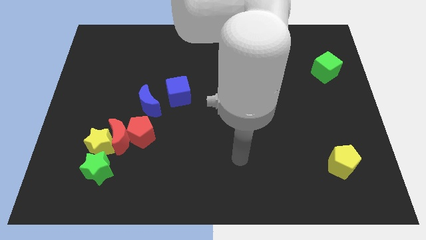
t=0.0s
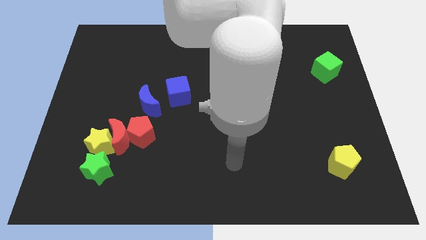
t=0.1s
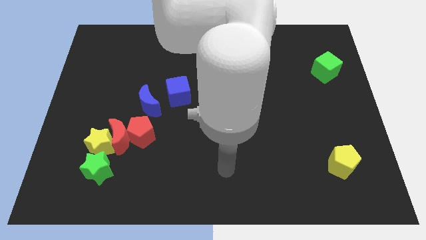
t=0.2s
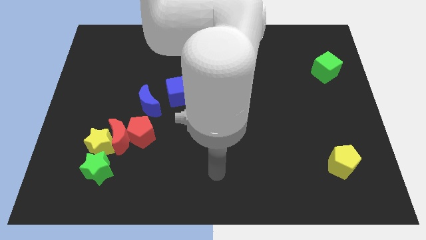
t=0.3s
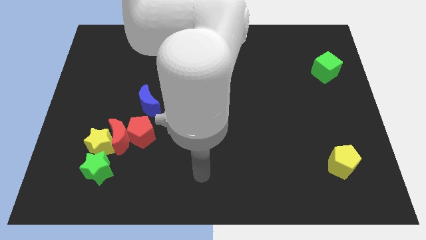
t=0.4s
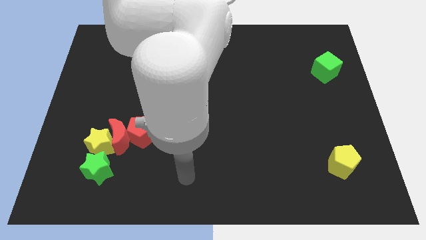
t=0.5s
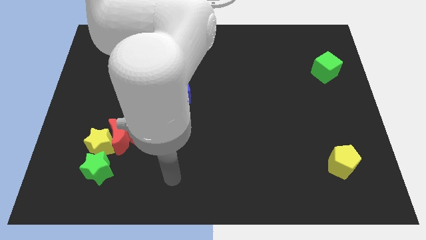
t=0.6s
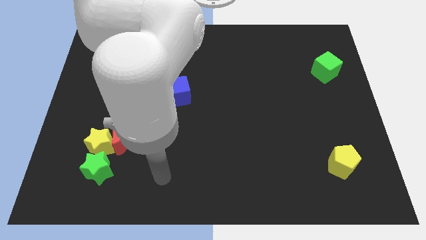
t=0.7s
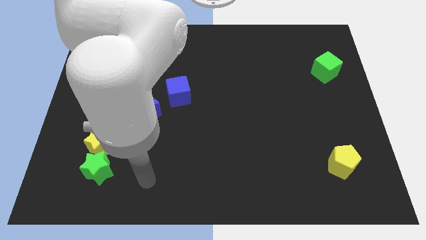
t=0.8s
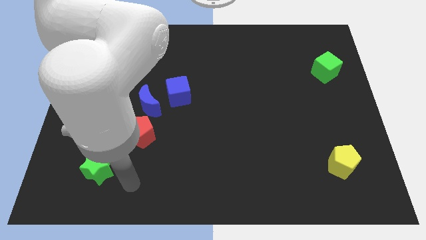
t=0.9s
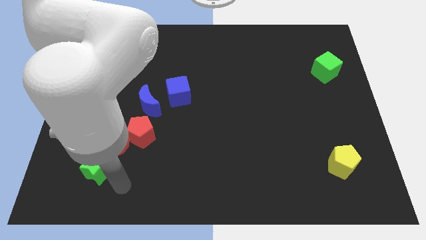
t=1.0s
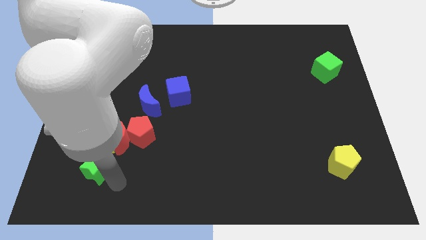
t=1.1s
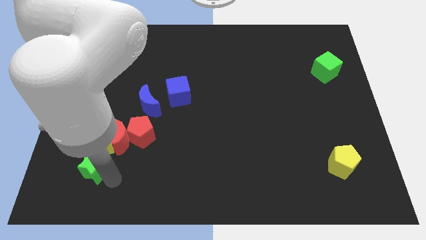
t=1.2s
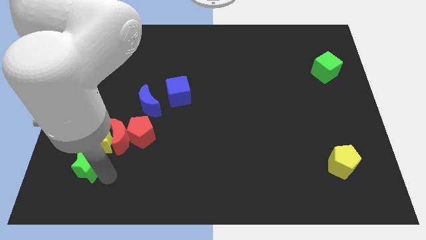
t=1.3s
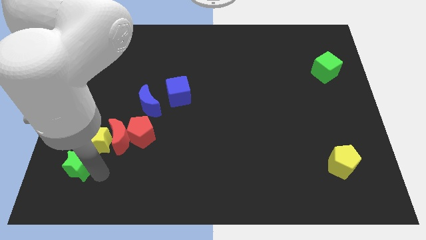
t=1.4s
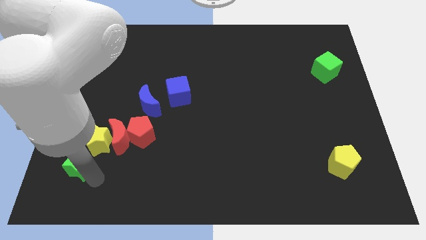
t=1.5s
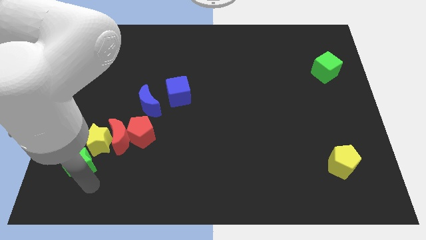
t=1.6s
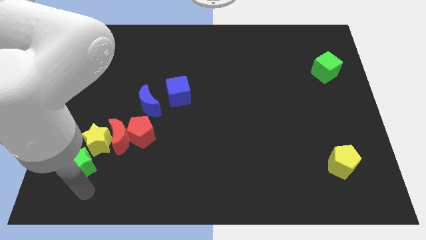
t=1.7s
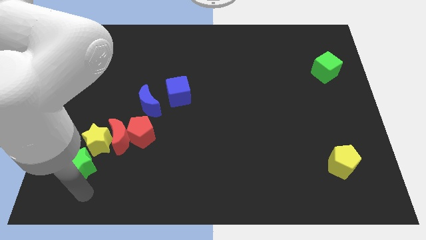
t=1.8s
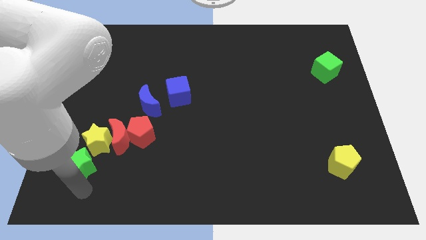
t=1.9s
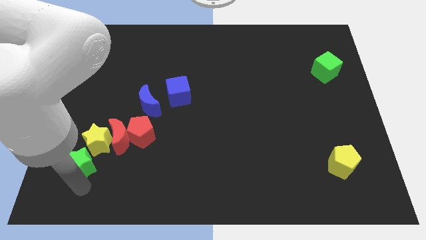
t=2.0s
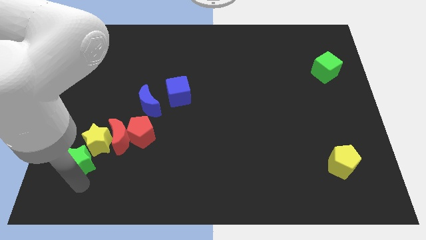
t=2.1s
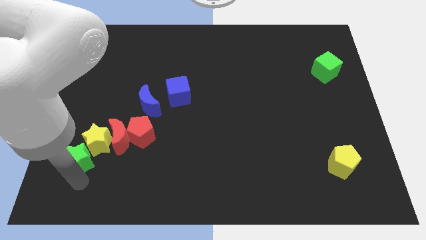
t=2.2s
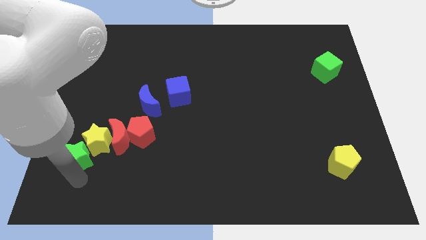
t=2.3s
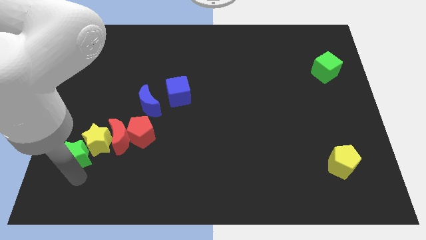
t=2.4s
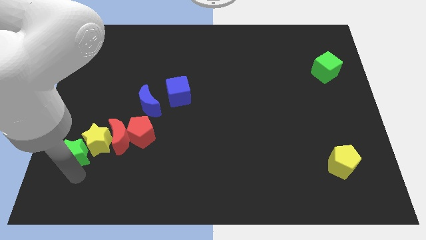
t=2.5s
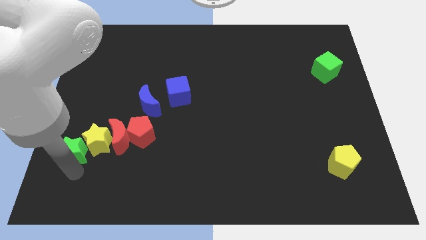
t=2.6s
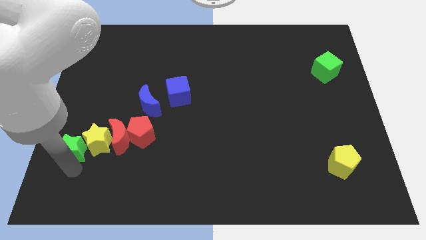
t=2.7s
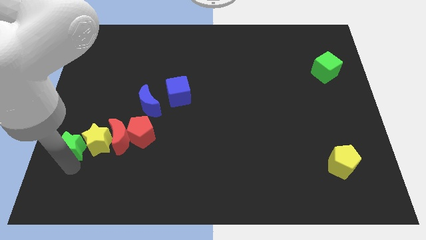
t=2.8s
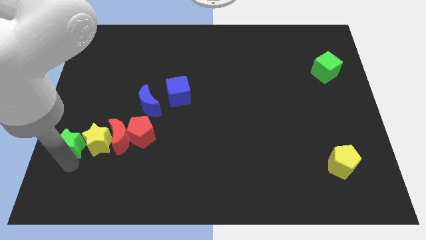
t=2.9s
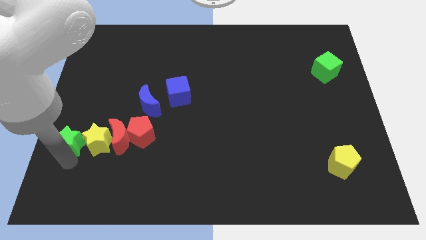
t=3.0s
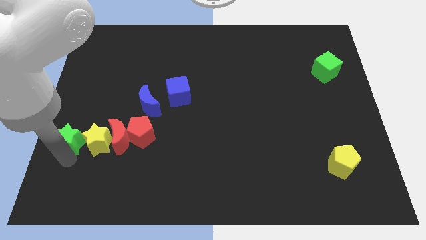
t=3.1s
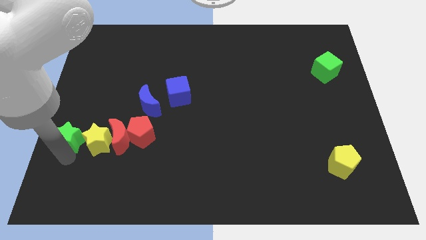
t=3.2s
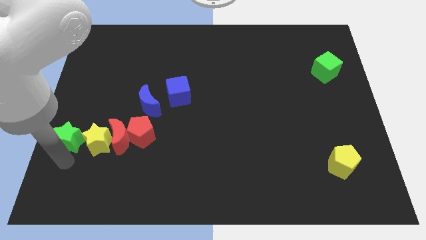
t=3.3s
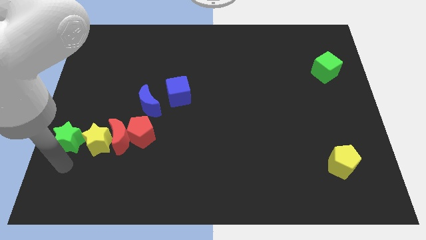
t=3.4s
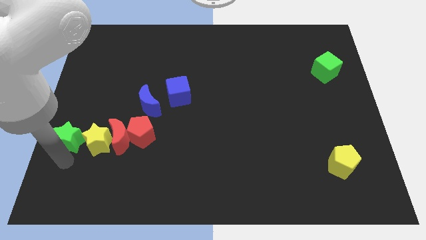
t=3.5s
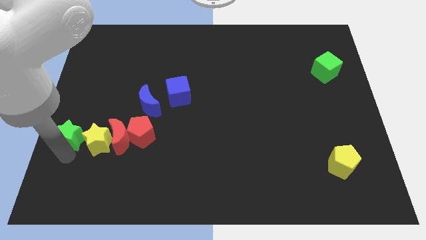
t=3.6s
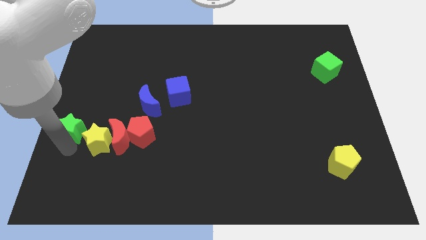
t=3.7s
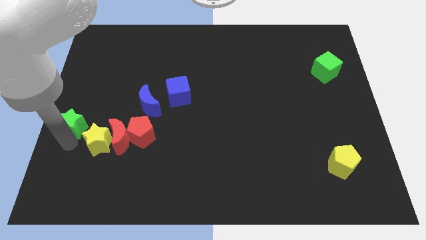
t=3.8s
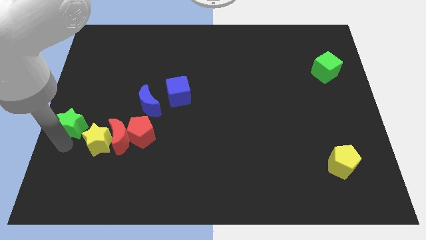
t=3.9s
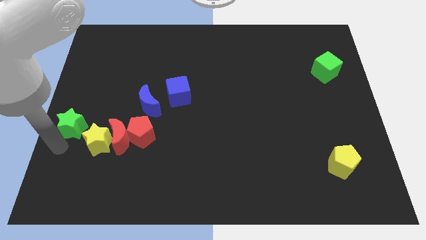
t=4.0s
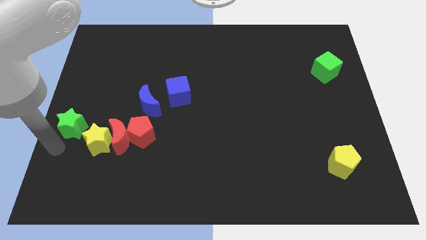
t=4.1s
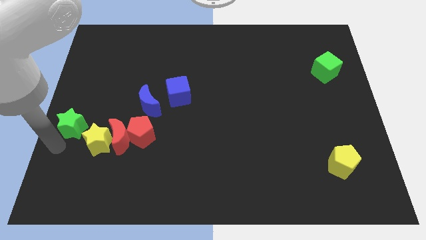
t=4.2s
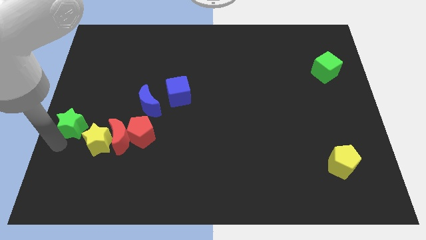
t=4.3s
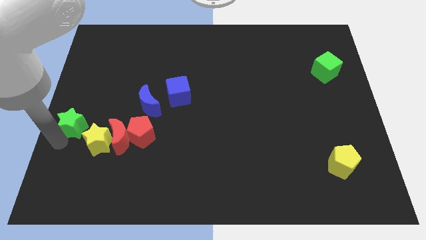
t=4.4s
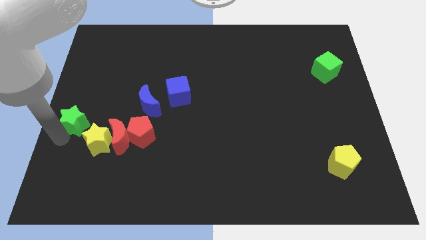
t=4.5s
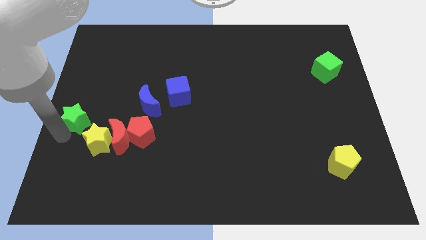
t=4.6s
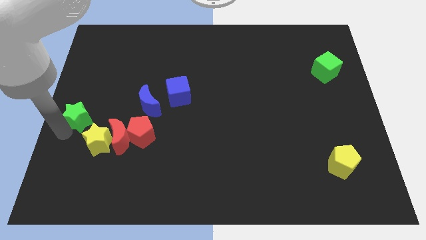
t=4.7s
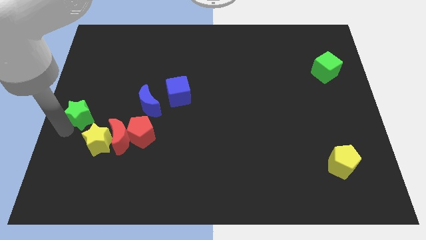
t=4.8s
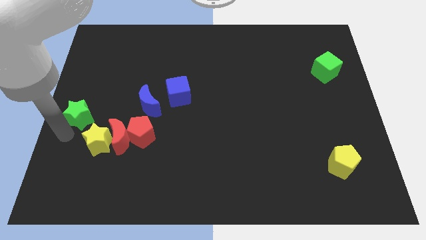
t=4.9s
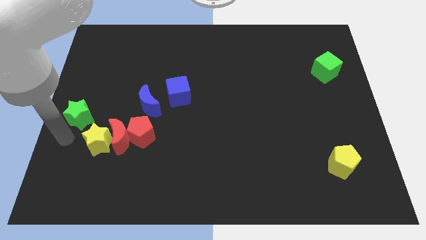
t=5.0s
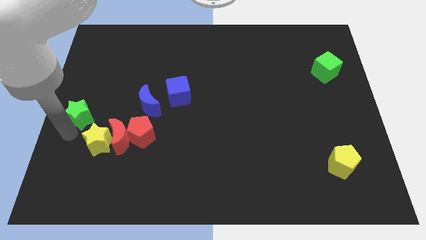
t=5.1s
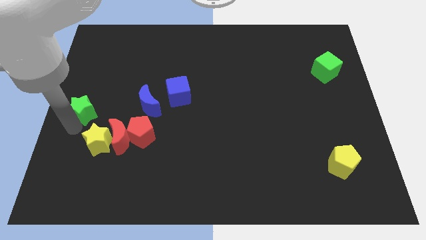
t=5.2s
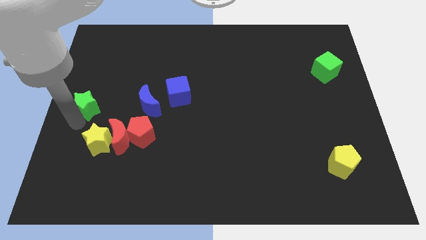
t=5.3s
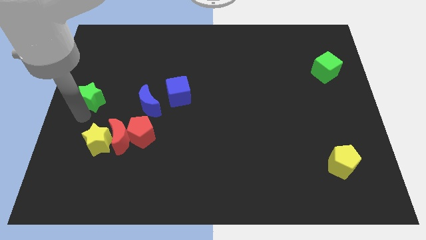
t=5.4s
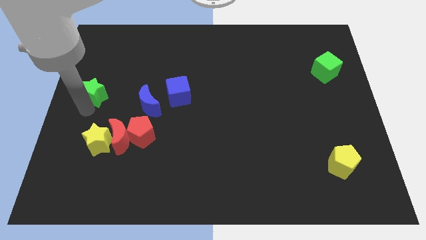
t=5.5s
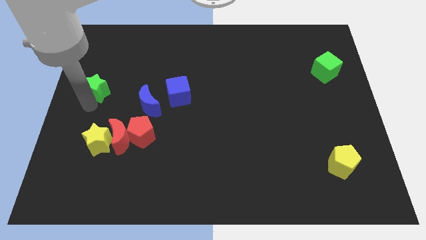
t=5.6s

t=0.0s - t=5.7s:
move the green star up

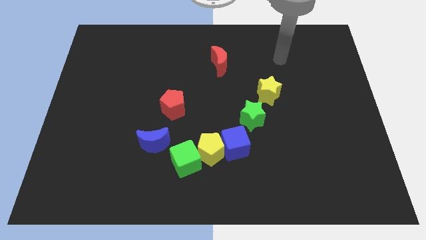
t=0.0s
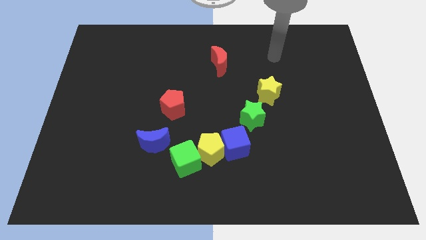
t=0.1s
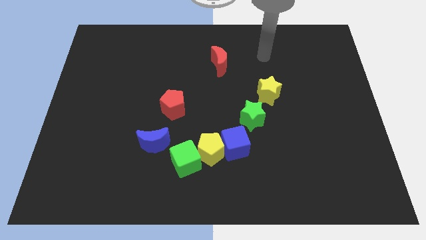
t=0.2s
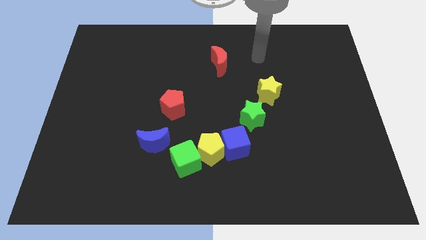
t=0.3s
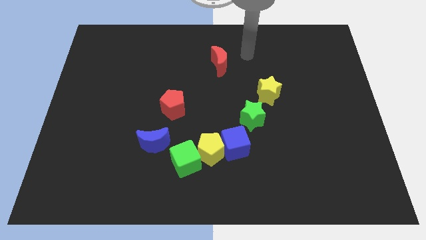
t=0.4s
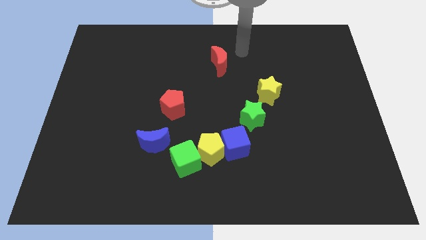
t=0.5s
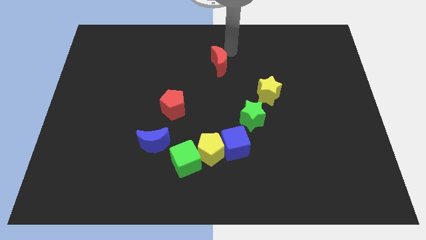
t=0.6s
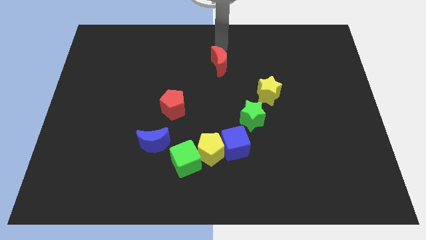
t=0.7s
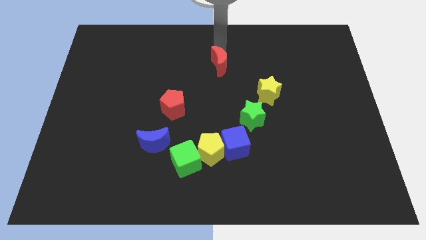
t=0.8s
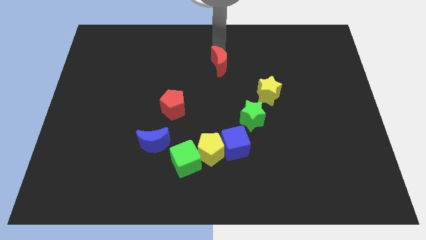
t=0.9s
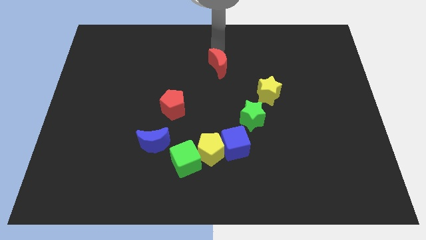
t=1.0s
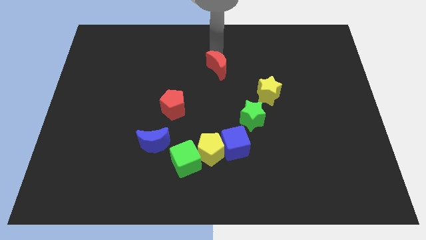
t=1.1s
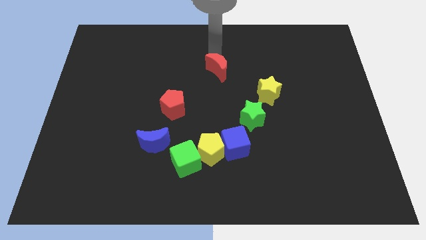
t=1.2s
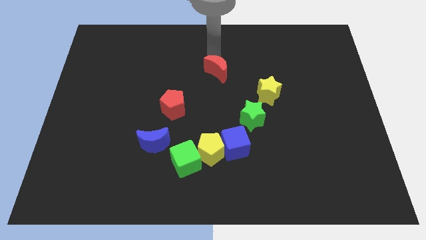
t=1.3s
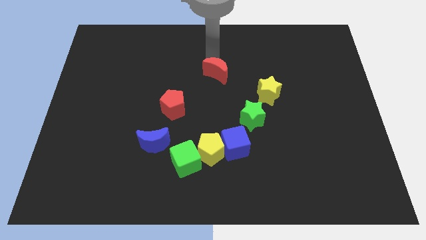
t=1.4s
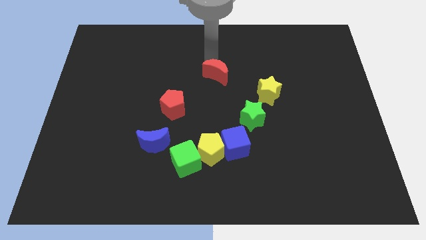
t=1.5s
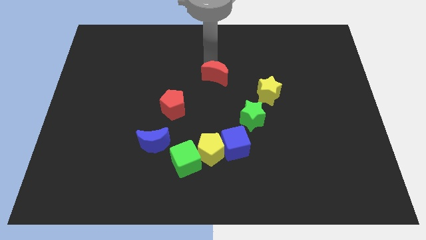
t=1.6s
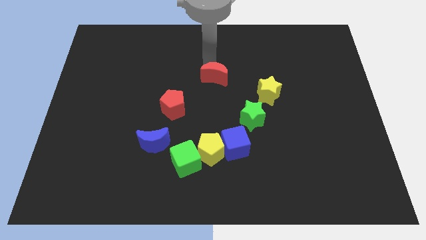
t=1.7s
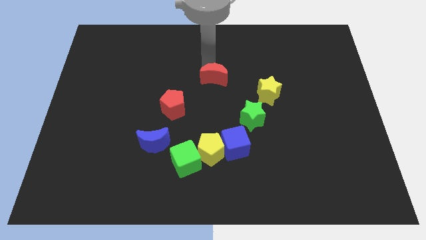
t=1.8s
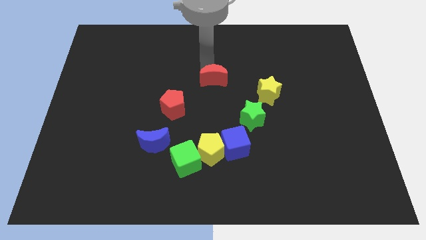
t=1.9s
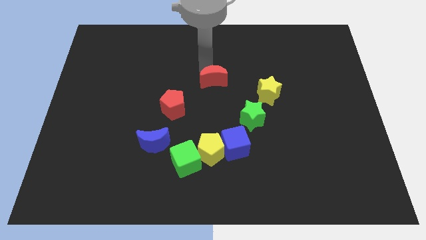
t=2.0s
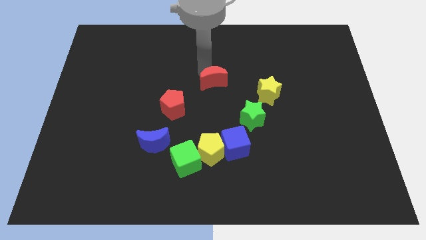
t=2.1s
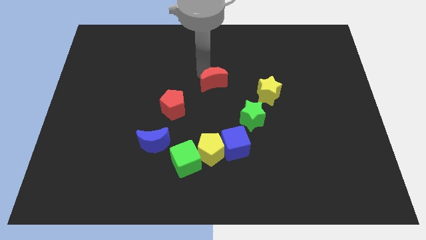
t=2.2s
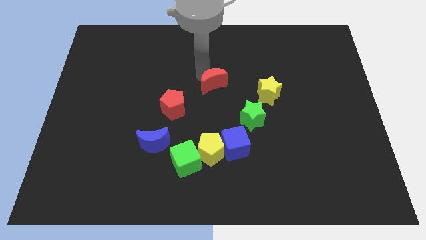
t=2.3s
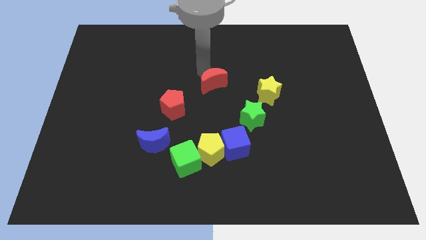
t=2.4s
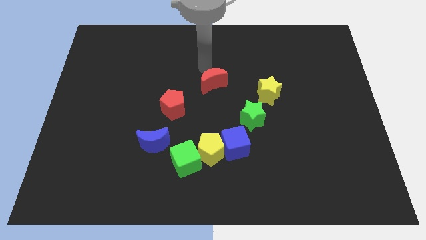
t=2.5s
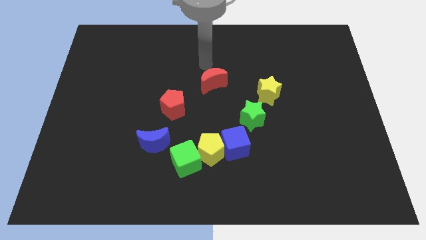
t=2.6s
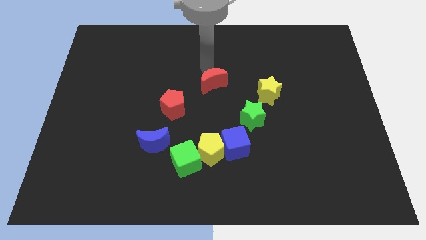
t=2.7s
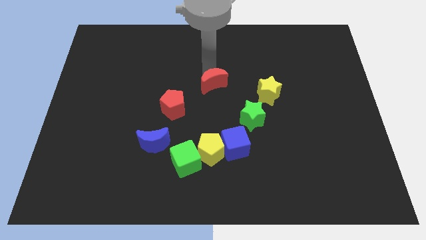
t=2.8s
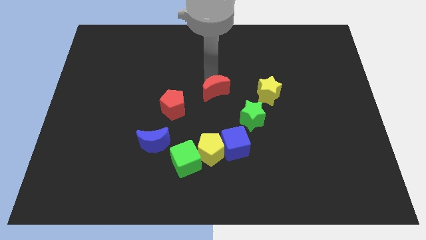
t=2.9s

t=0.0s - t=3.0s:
push the red moon a little down
